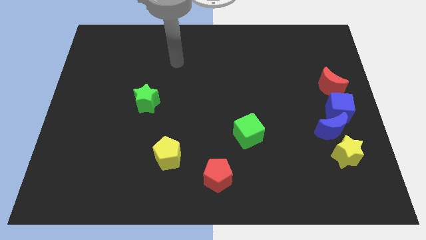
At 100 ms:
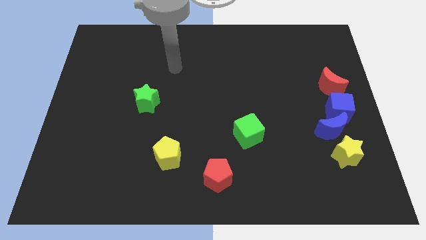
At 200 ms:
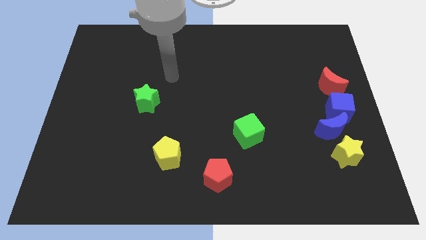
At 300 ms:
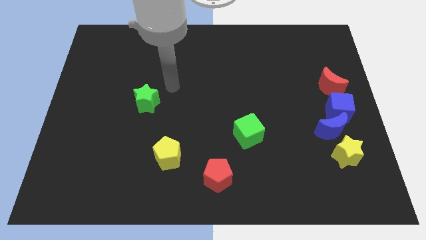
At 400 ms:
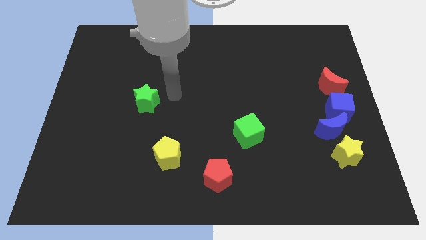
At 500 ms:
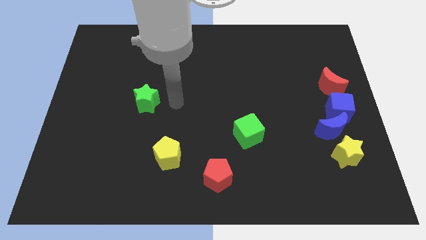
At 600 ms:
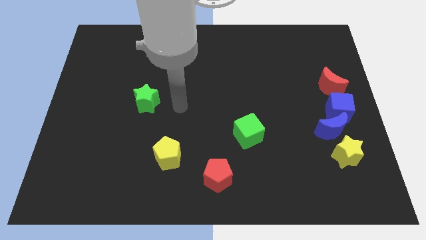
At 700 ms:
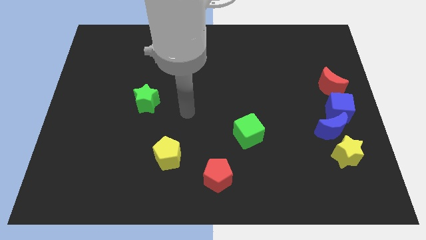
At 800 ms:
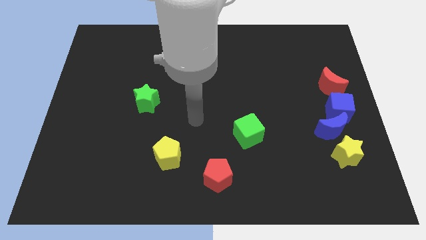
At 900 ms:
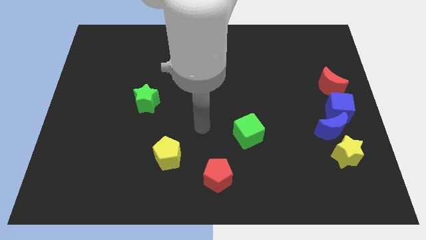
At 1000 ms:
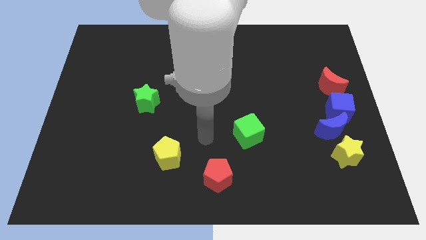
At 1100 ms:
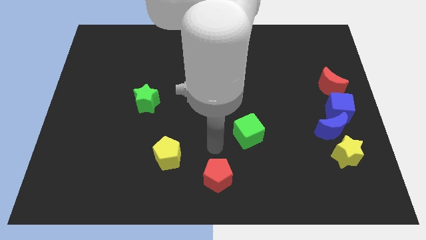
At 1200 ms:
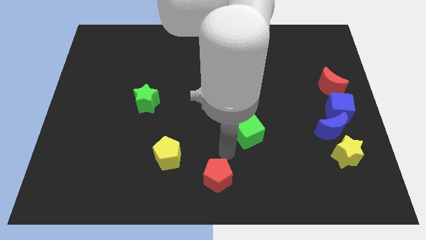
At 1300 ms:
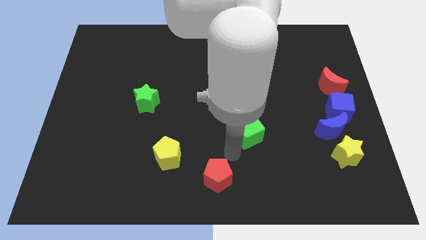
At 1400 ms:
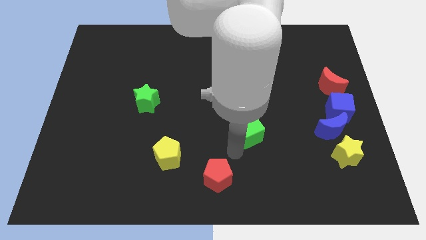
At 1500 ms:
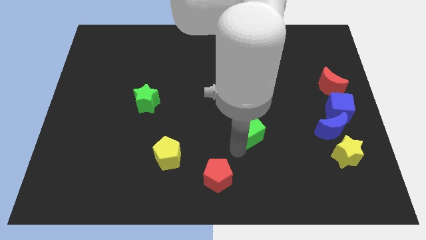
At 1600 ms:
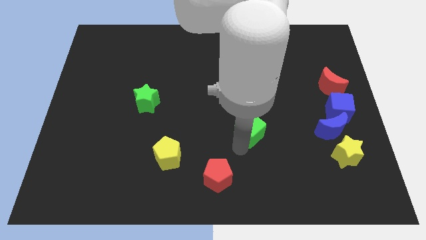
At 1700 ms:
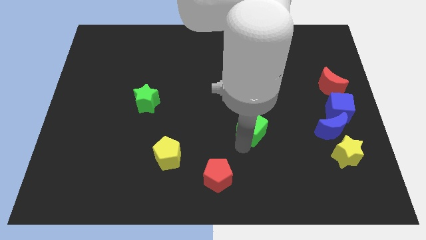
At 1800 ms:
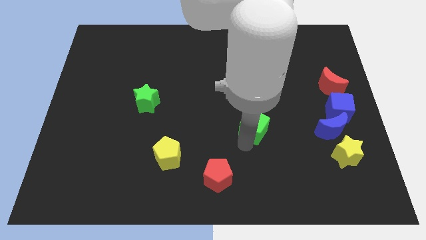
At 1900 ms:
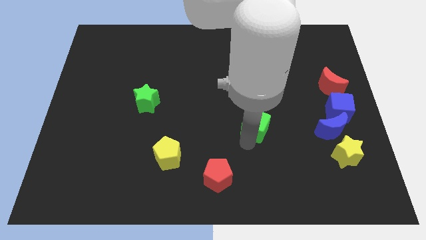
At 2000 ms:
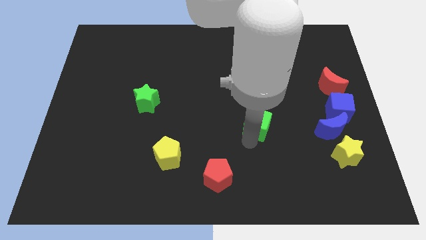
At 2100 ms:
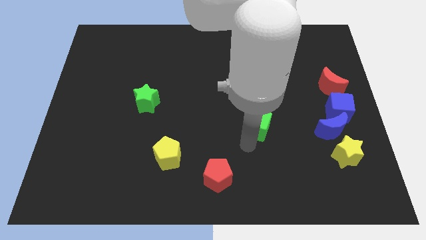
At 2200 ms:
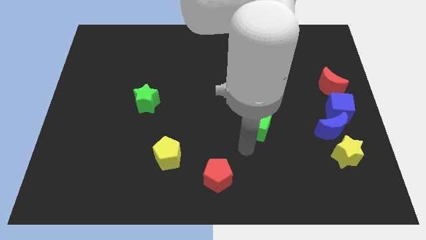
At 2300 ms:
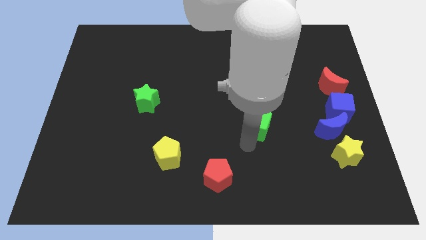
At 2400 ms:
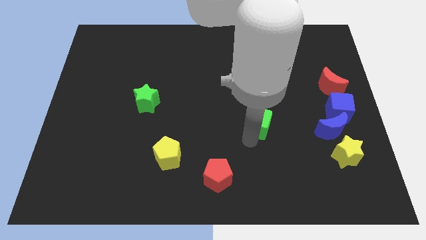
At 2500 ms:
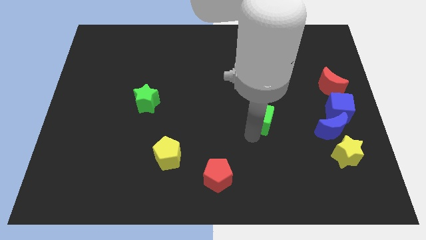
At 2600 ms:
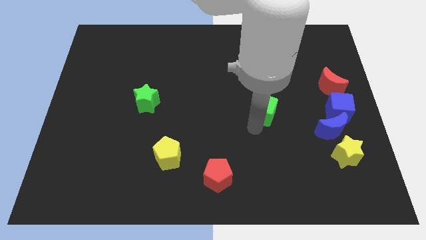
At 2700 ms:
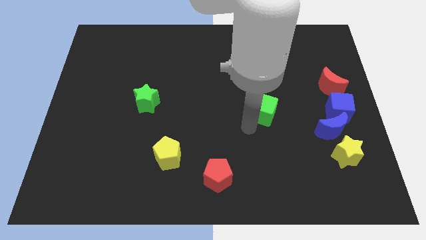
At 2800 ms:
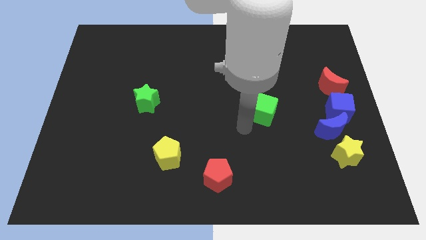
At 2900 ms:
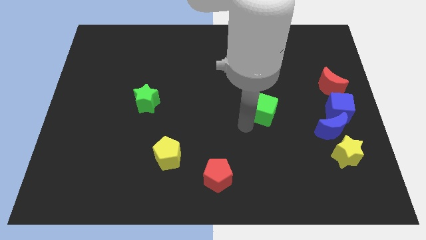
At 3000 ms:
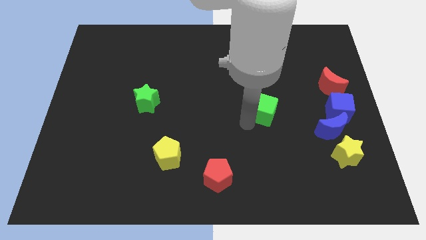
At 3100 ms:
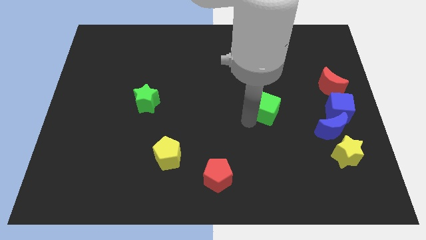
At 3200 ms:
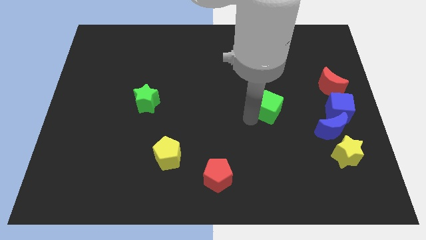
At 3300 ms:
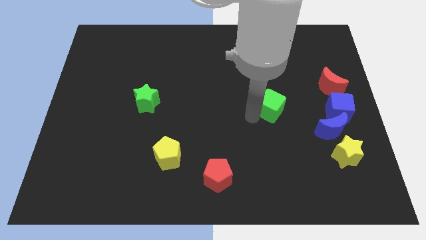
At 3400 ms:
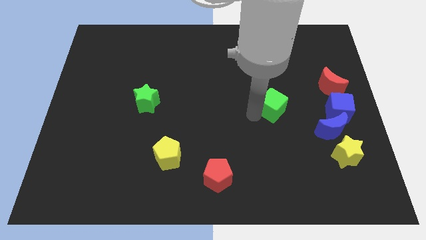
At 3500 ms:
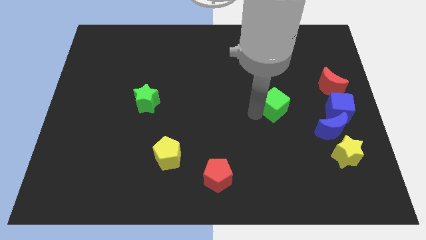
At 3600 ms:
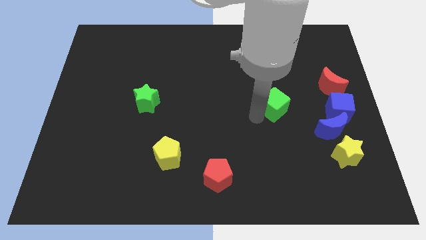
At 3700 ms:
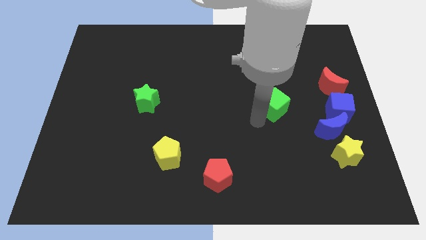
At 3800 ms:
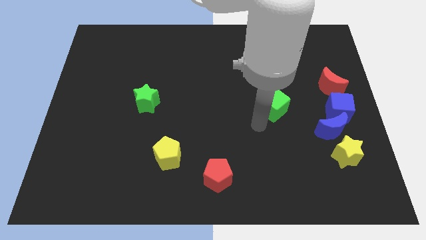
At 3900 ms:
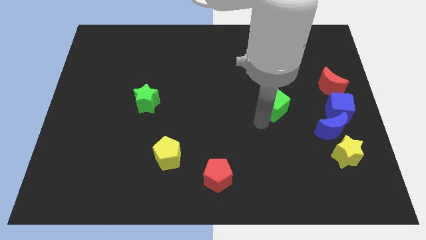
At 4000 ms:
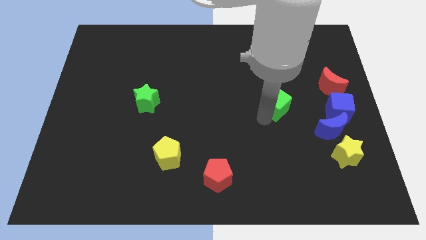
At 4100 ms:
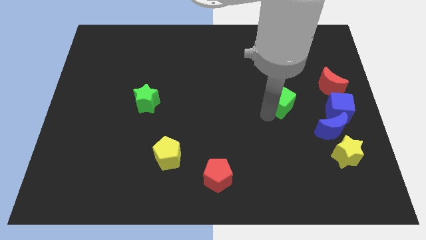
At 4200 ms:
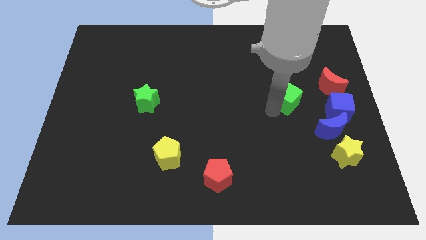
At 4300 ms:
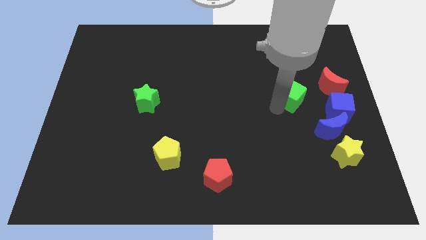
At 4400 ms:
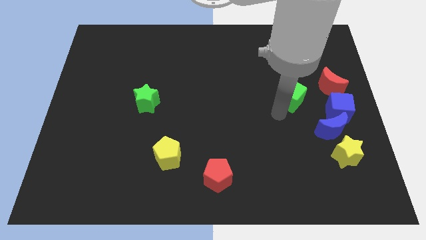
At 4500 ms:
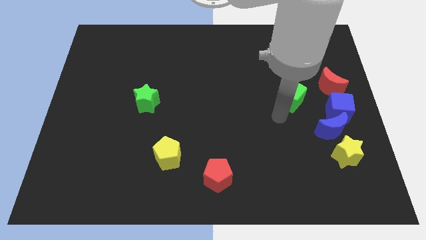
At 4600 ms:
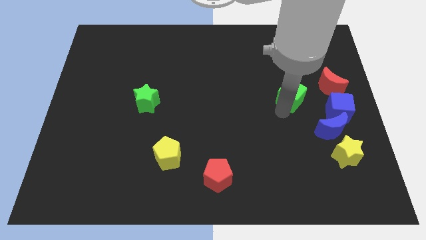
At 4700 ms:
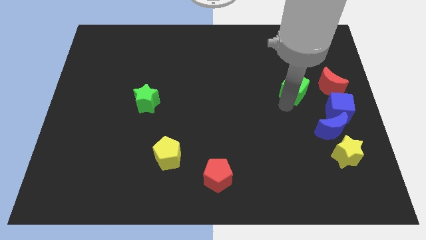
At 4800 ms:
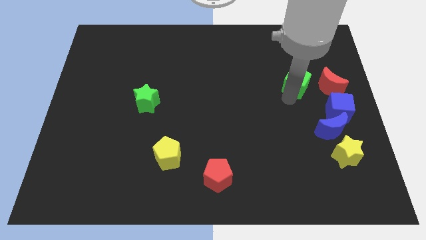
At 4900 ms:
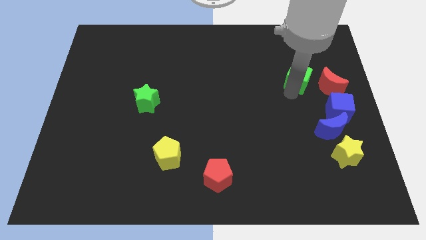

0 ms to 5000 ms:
move the green cube to the top left side of the red moon

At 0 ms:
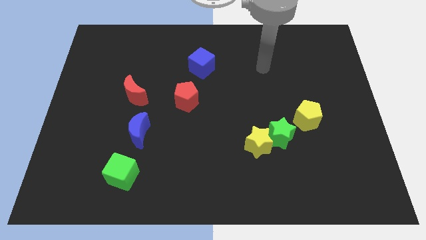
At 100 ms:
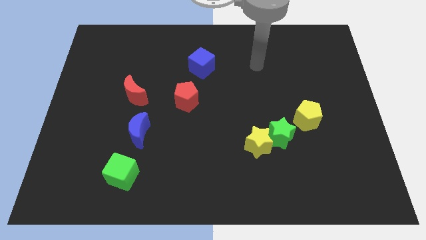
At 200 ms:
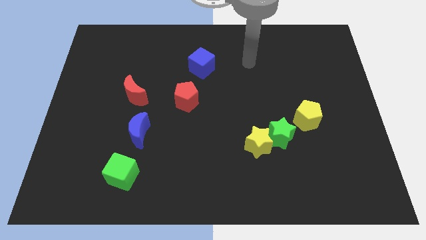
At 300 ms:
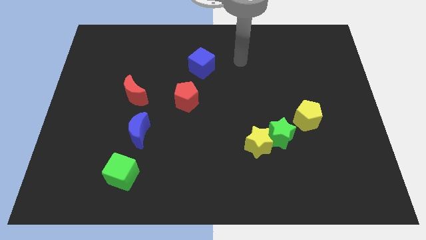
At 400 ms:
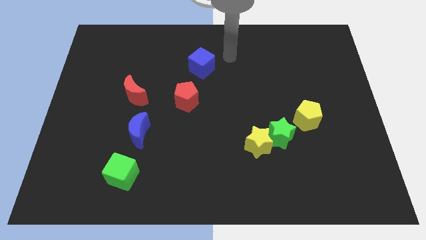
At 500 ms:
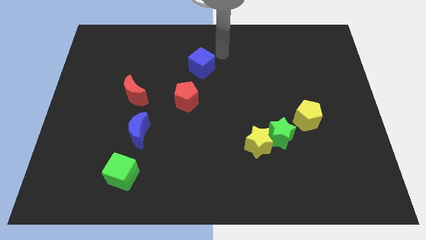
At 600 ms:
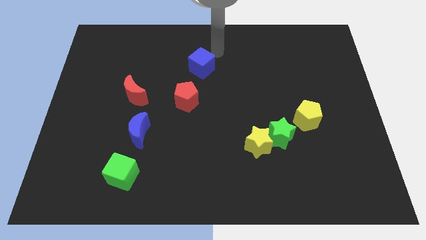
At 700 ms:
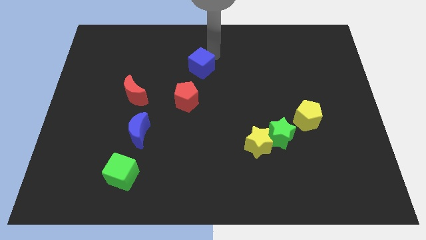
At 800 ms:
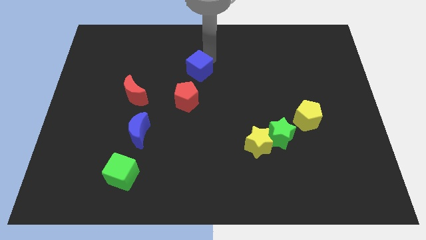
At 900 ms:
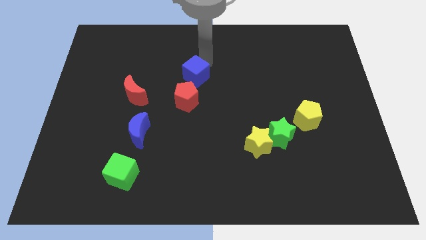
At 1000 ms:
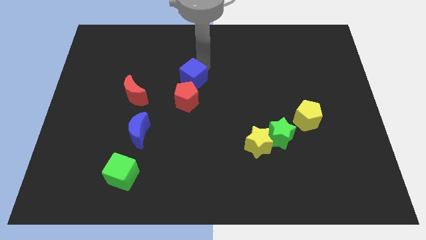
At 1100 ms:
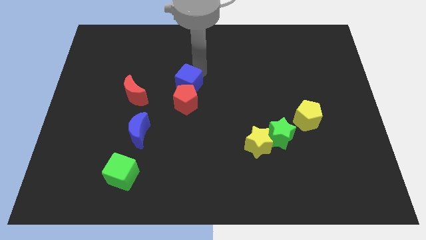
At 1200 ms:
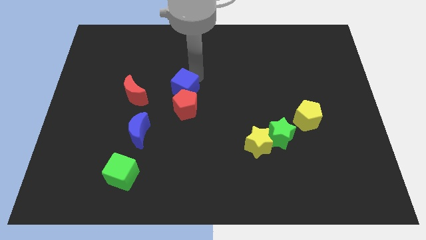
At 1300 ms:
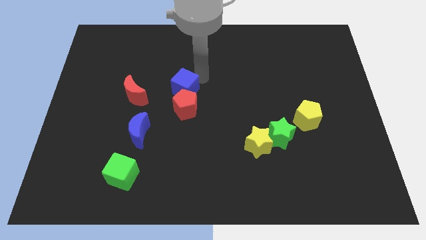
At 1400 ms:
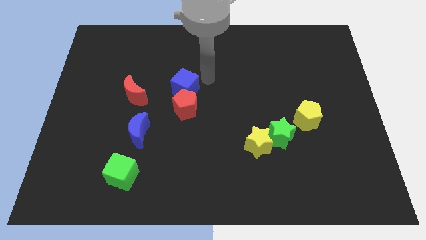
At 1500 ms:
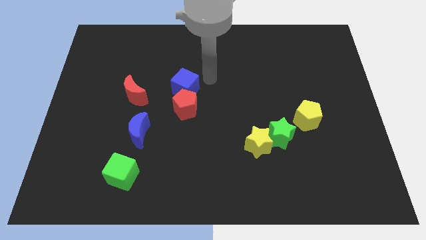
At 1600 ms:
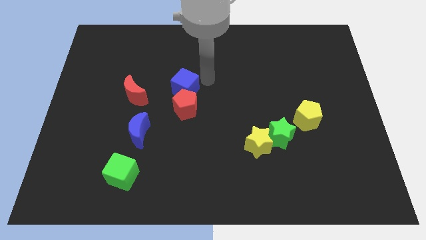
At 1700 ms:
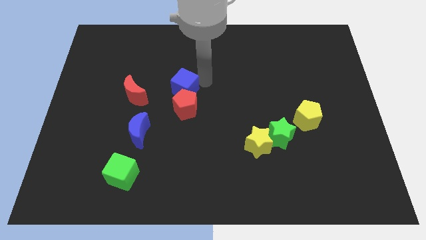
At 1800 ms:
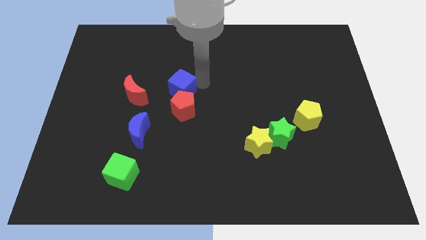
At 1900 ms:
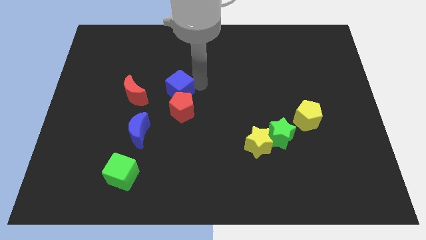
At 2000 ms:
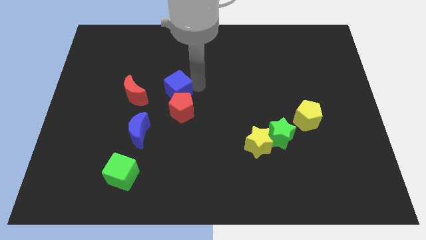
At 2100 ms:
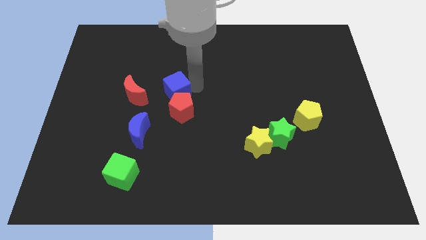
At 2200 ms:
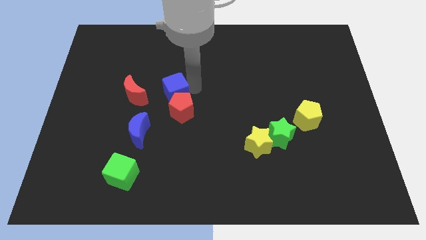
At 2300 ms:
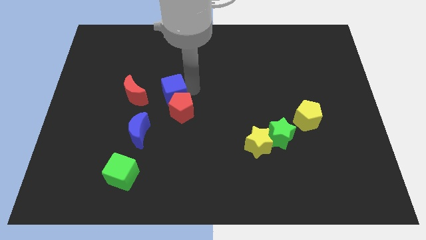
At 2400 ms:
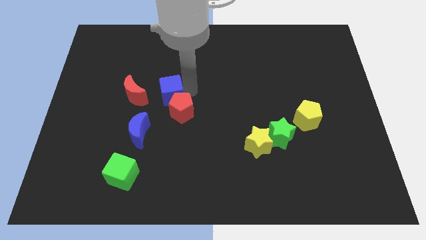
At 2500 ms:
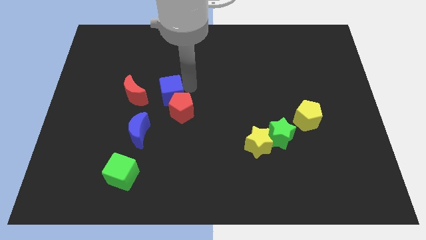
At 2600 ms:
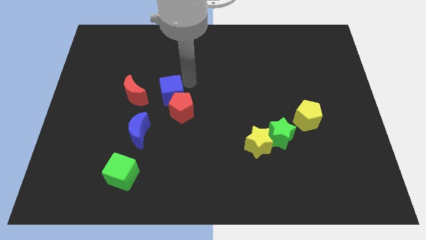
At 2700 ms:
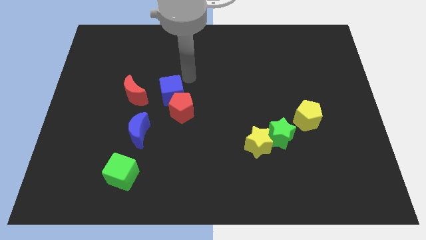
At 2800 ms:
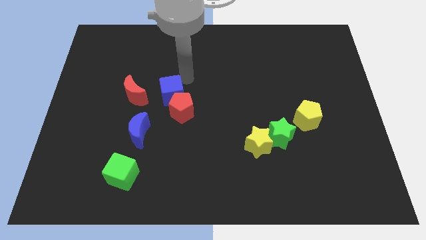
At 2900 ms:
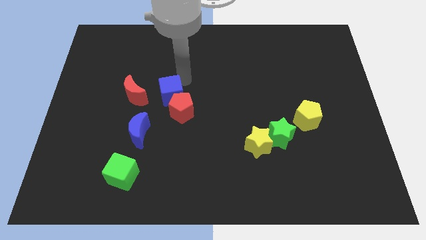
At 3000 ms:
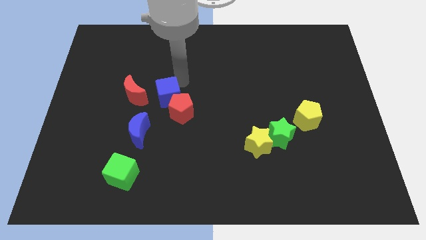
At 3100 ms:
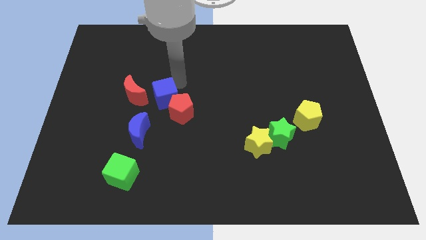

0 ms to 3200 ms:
push the blue cube to the bottom right of the red moon
